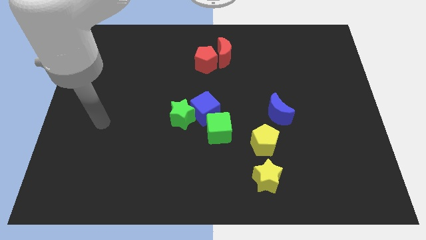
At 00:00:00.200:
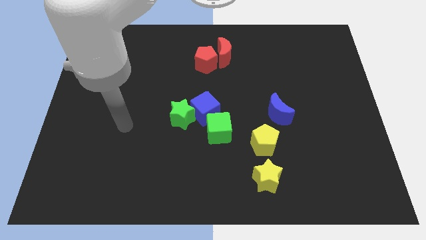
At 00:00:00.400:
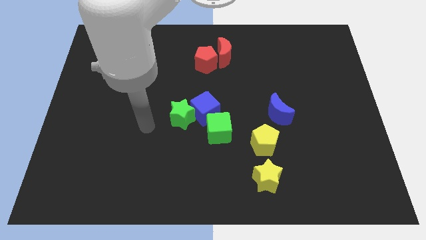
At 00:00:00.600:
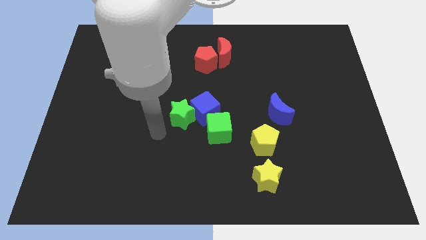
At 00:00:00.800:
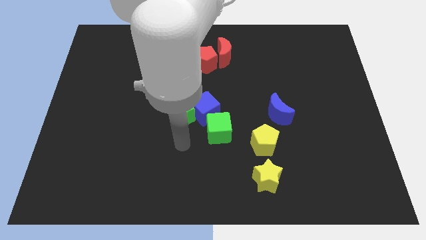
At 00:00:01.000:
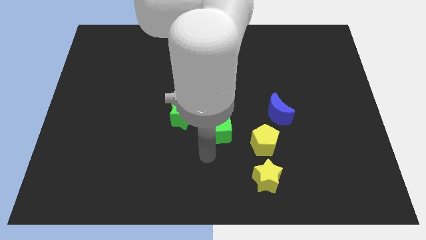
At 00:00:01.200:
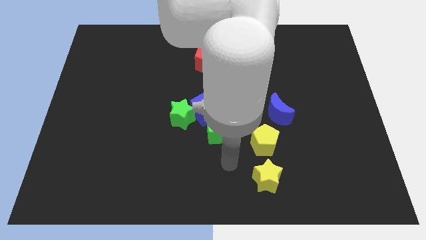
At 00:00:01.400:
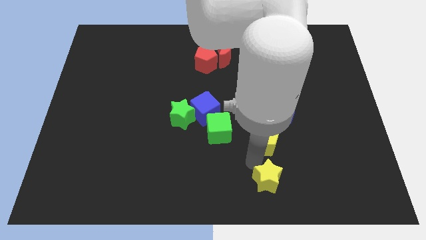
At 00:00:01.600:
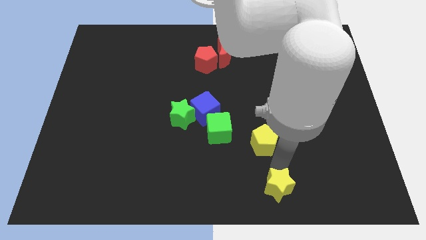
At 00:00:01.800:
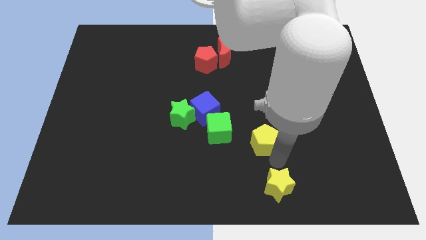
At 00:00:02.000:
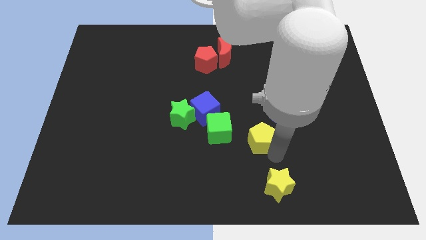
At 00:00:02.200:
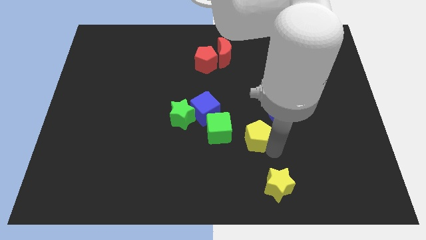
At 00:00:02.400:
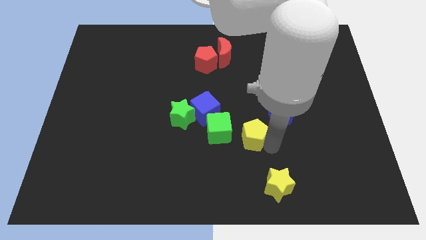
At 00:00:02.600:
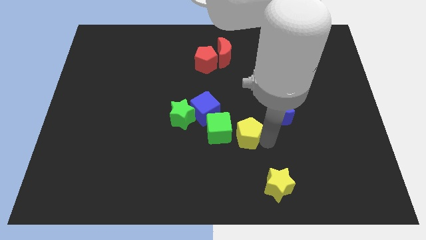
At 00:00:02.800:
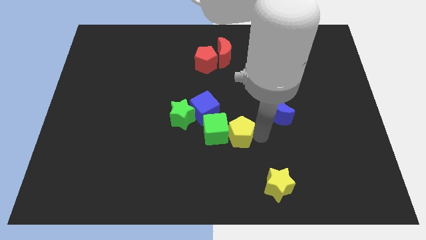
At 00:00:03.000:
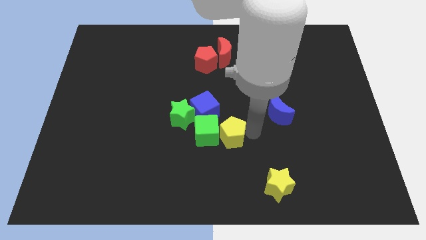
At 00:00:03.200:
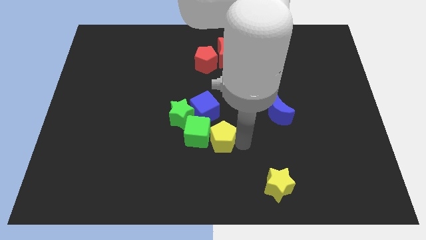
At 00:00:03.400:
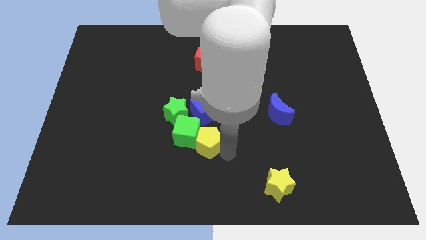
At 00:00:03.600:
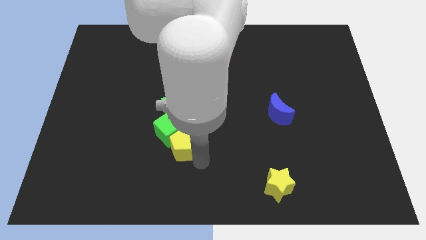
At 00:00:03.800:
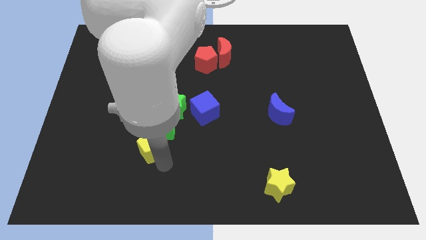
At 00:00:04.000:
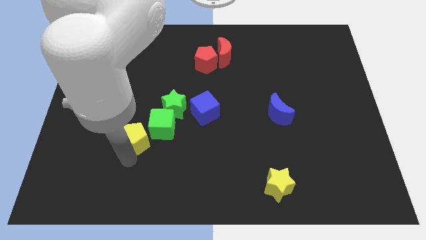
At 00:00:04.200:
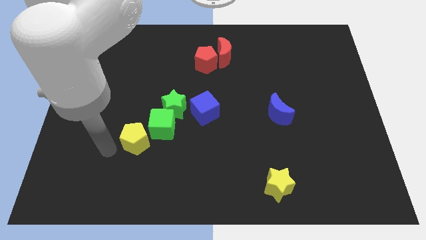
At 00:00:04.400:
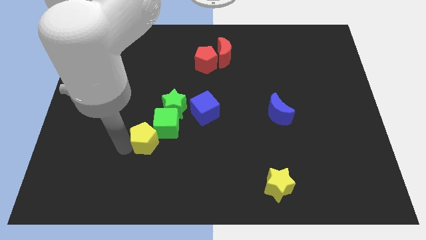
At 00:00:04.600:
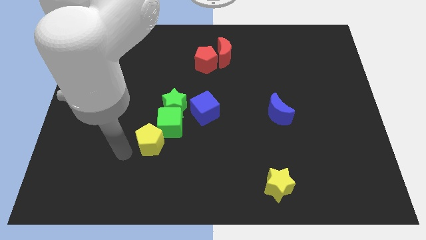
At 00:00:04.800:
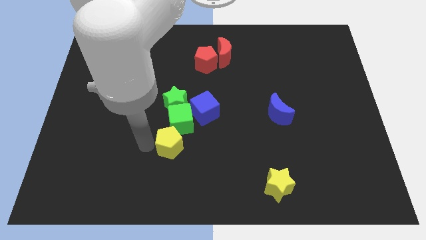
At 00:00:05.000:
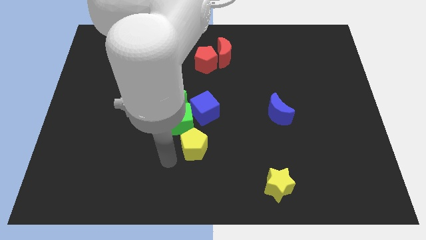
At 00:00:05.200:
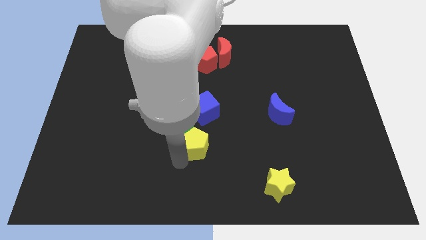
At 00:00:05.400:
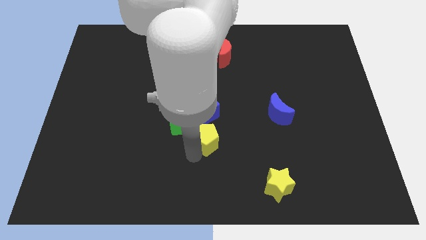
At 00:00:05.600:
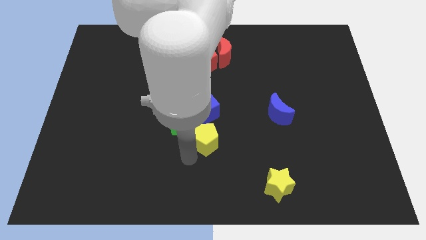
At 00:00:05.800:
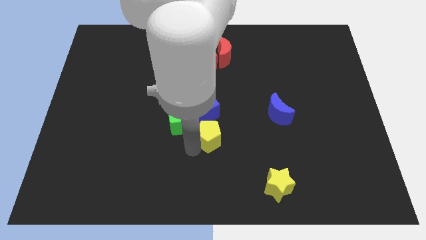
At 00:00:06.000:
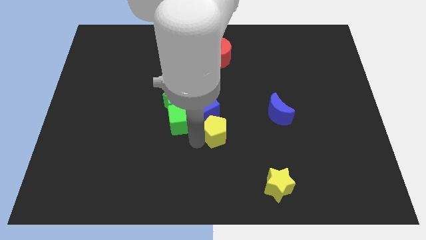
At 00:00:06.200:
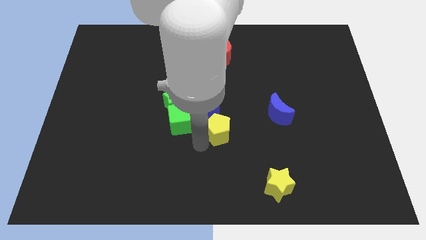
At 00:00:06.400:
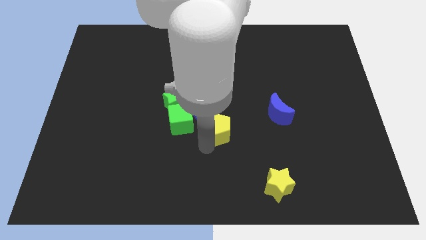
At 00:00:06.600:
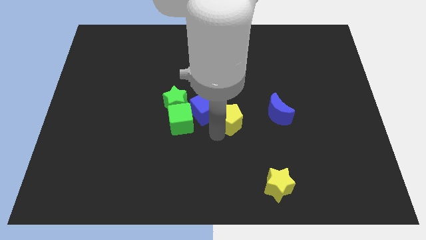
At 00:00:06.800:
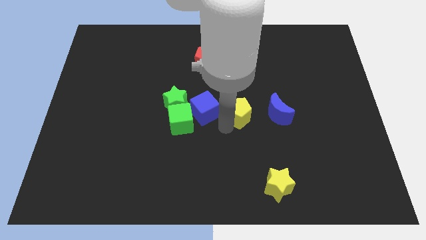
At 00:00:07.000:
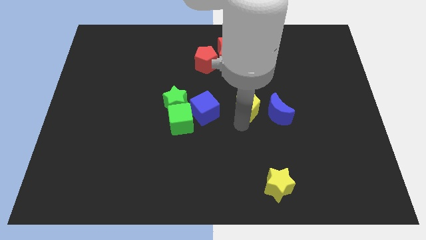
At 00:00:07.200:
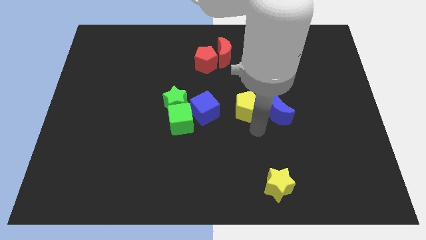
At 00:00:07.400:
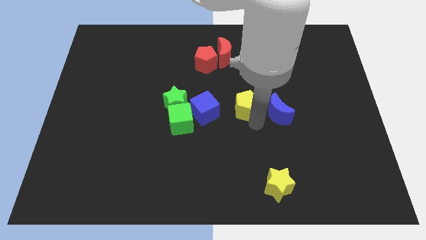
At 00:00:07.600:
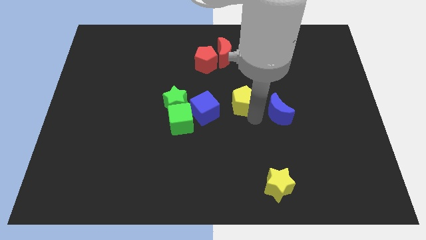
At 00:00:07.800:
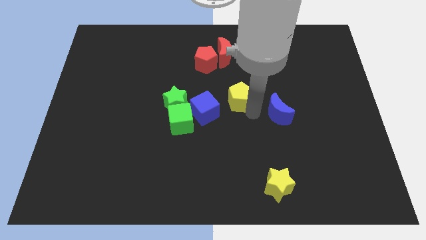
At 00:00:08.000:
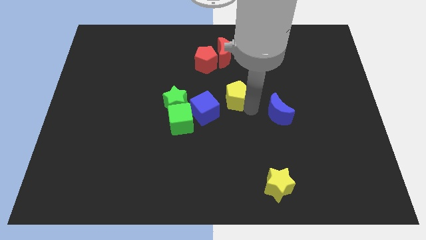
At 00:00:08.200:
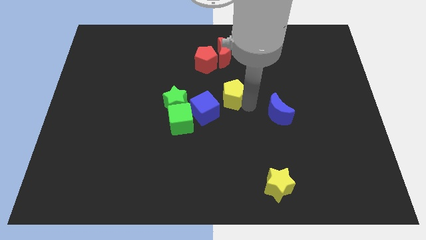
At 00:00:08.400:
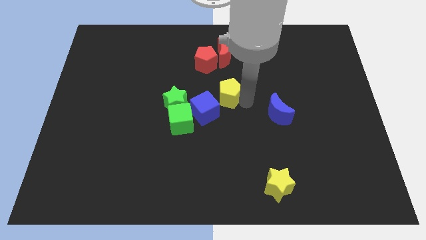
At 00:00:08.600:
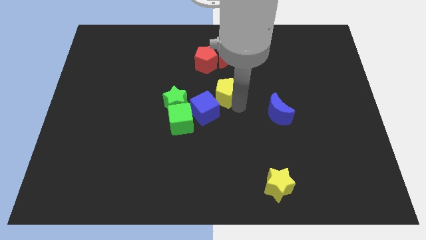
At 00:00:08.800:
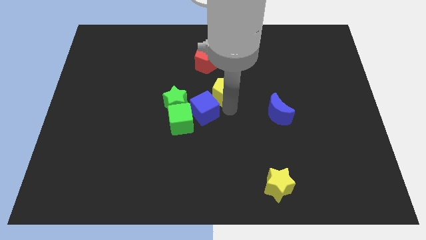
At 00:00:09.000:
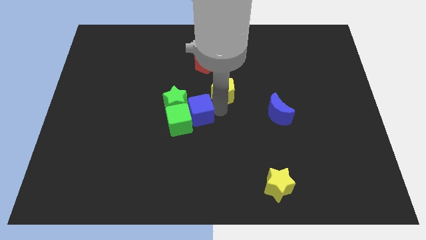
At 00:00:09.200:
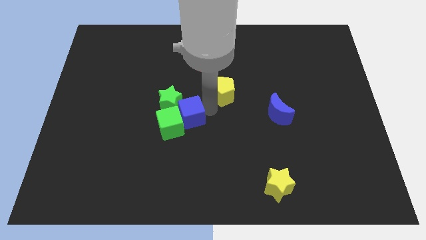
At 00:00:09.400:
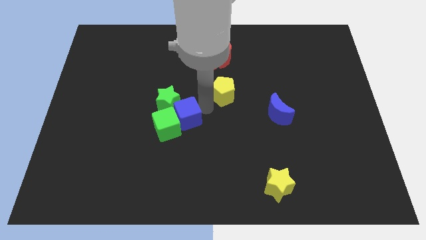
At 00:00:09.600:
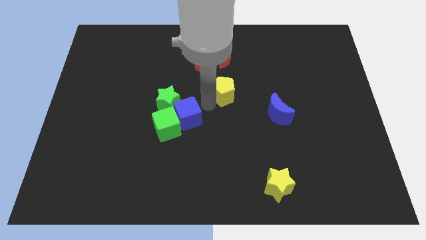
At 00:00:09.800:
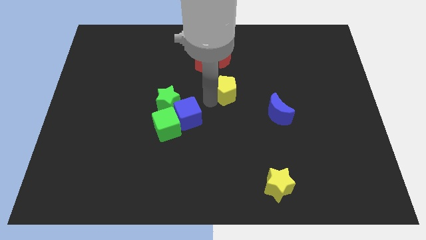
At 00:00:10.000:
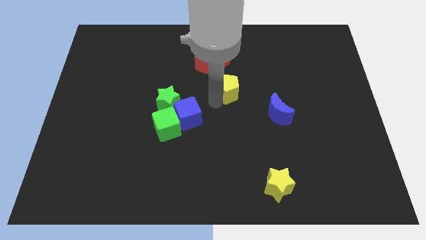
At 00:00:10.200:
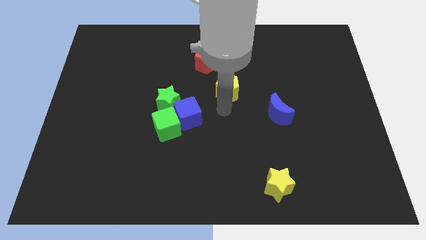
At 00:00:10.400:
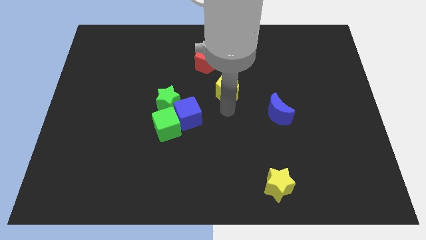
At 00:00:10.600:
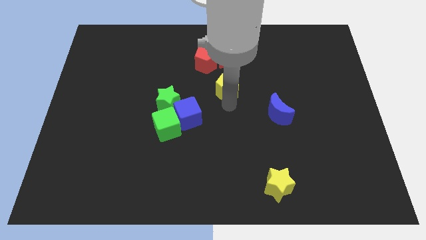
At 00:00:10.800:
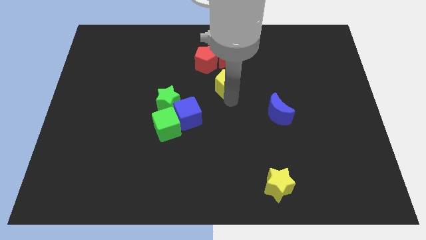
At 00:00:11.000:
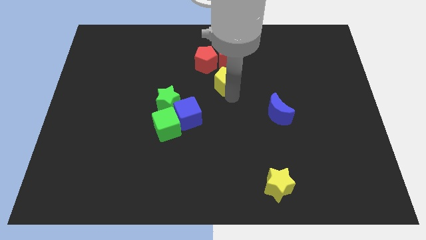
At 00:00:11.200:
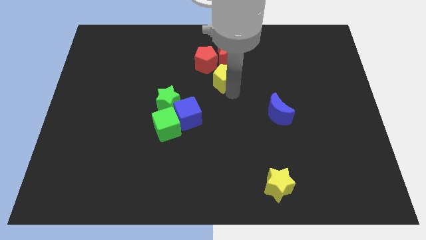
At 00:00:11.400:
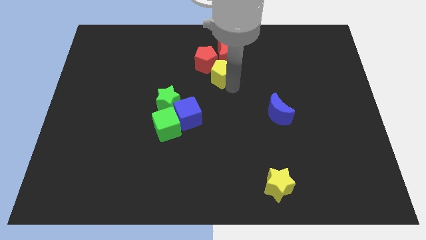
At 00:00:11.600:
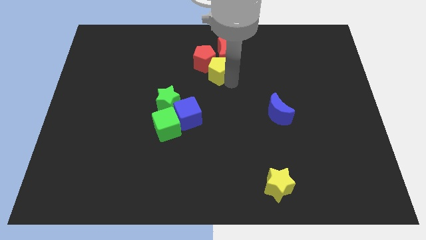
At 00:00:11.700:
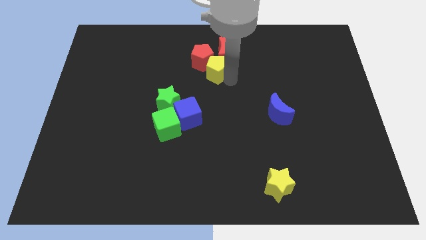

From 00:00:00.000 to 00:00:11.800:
slide the yellow pentagon close to the red moon
